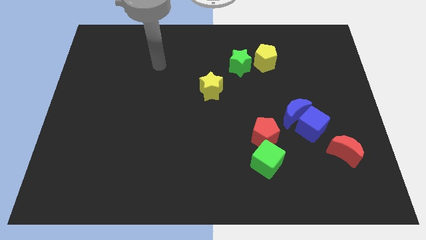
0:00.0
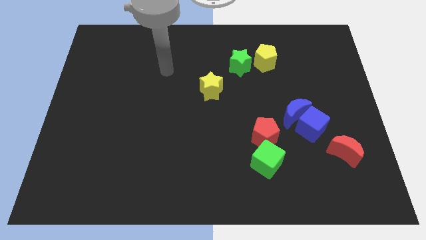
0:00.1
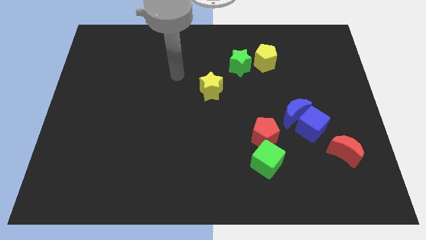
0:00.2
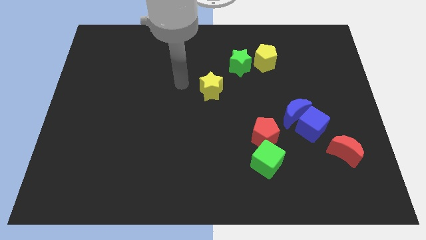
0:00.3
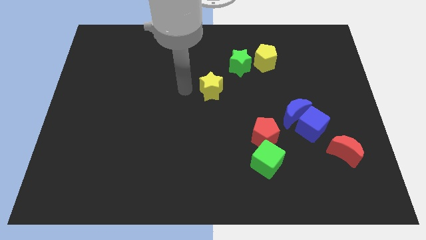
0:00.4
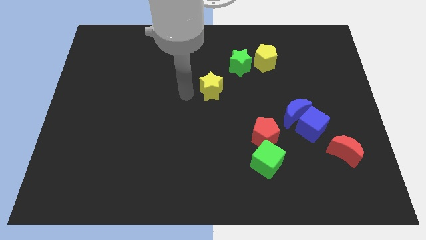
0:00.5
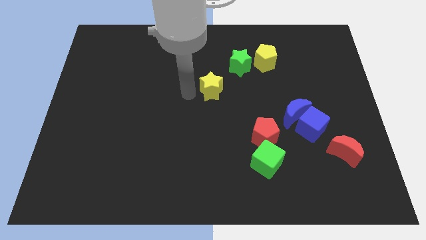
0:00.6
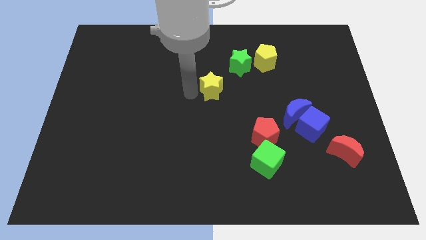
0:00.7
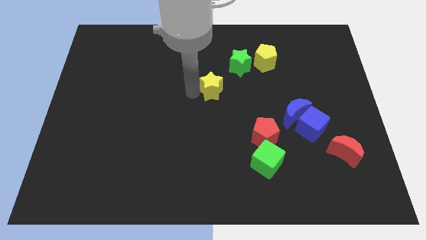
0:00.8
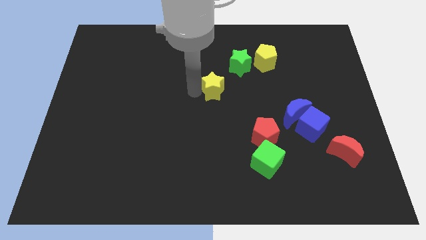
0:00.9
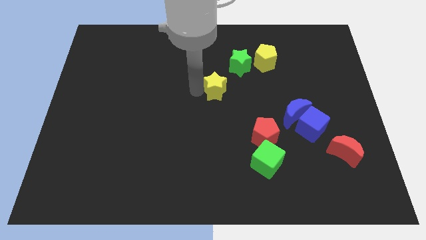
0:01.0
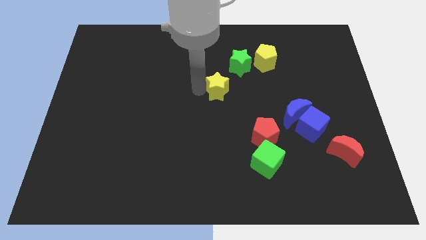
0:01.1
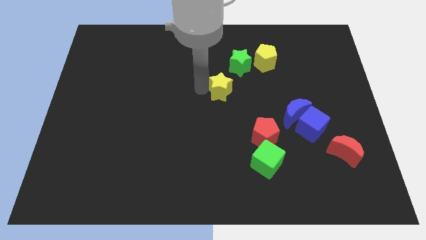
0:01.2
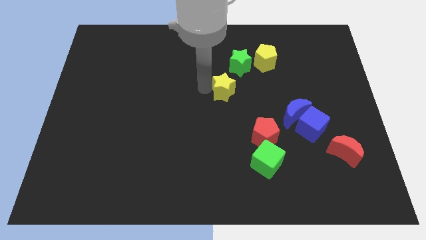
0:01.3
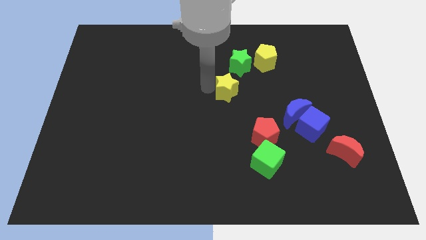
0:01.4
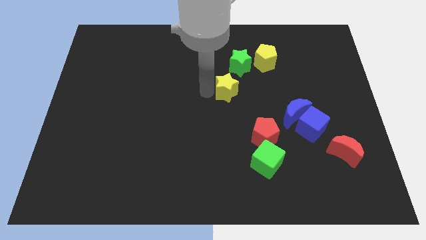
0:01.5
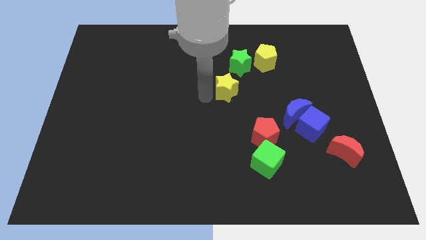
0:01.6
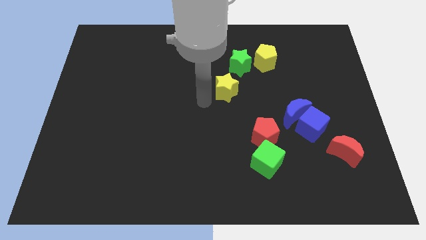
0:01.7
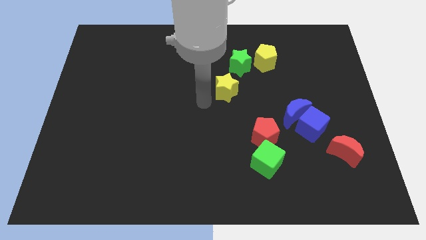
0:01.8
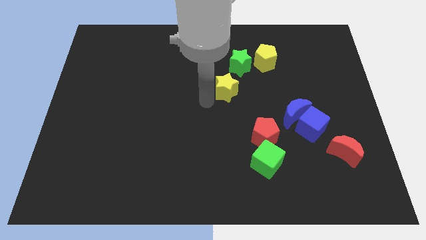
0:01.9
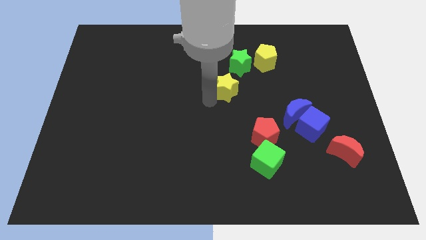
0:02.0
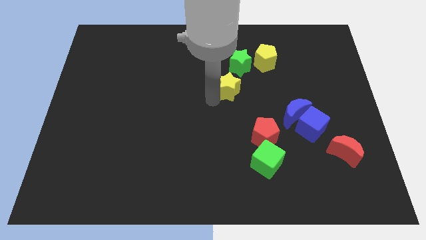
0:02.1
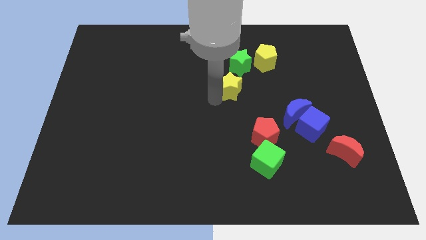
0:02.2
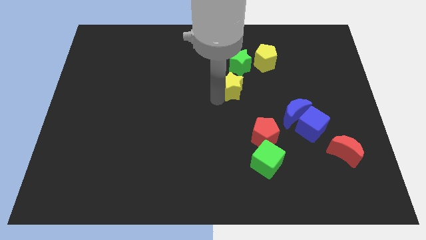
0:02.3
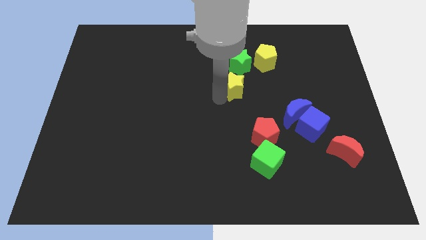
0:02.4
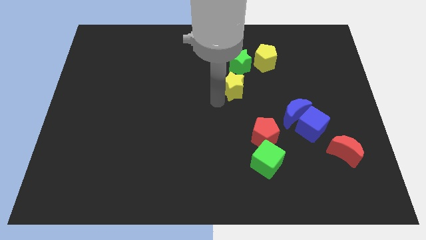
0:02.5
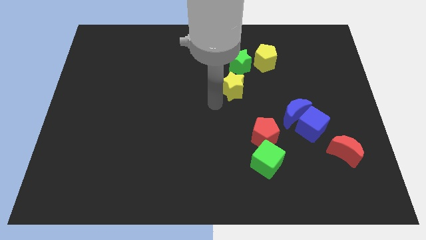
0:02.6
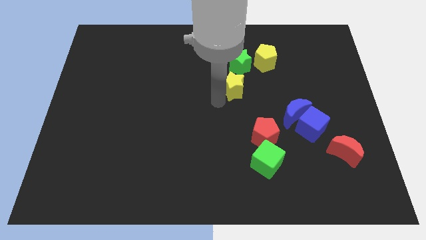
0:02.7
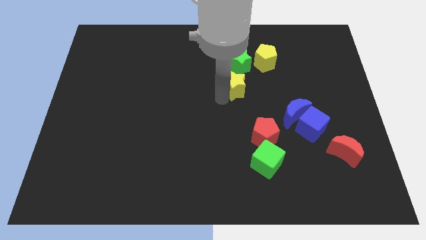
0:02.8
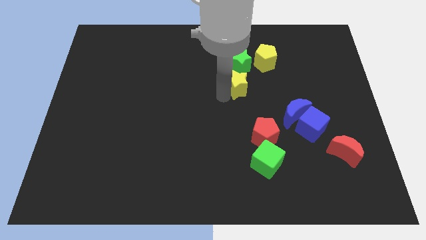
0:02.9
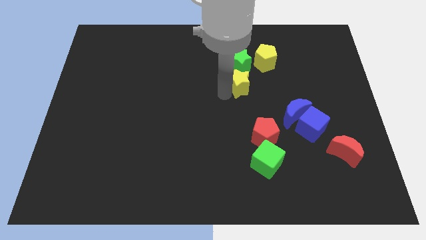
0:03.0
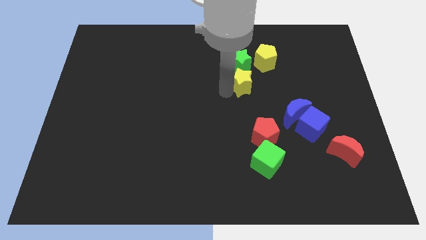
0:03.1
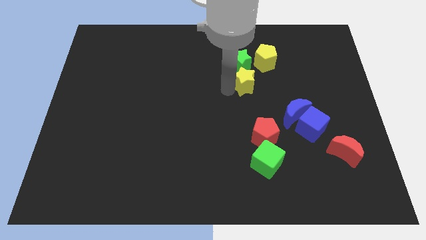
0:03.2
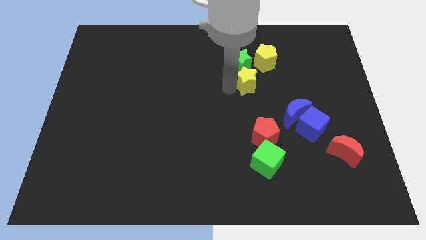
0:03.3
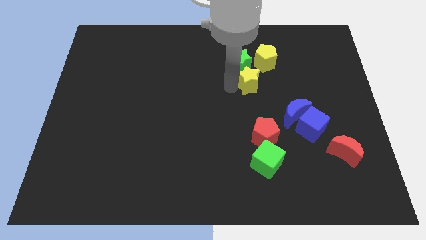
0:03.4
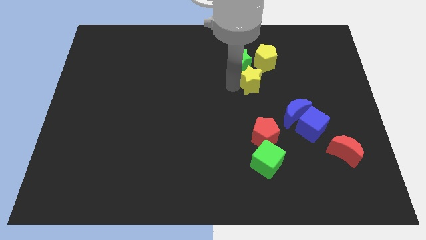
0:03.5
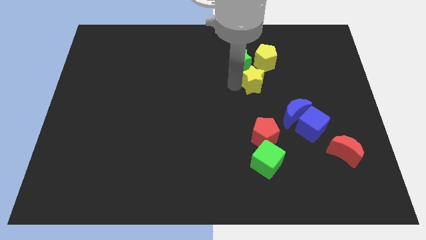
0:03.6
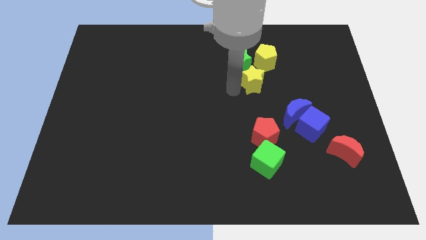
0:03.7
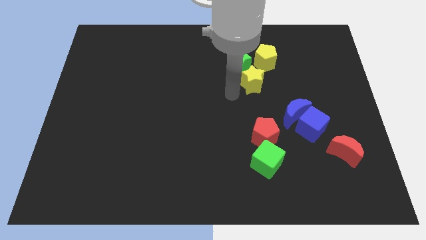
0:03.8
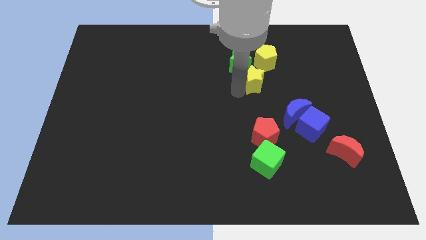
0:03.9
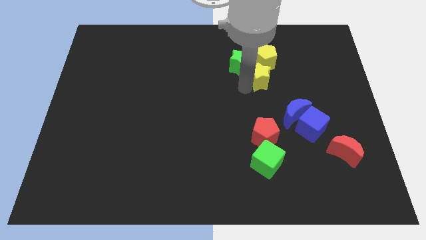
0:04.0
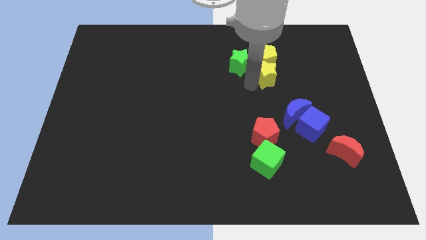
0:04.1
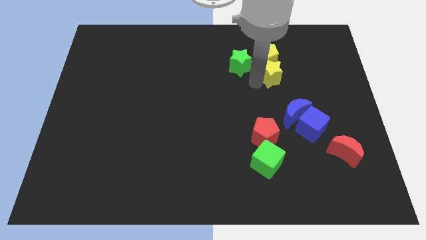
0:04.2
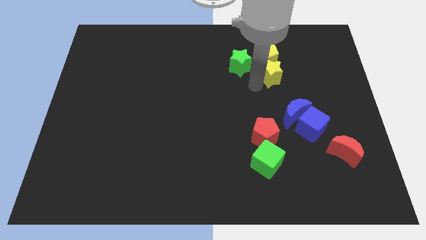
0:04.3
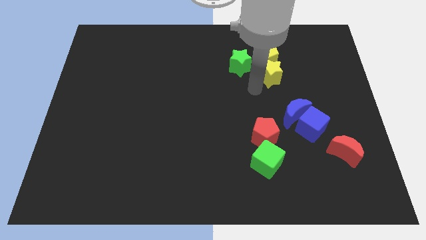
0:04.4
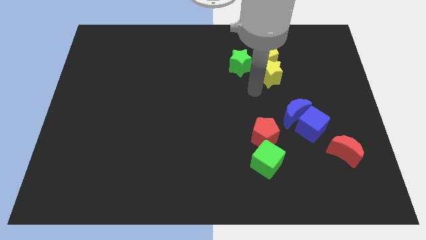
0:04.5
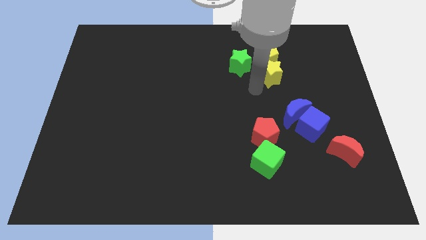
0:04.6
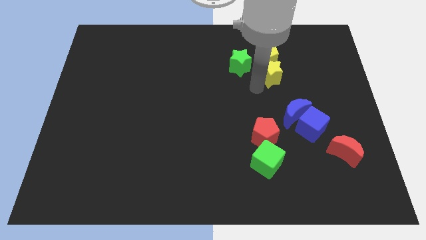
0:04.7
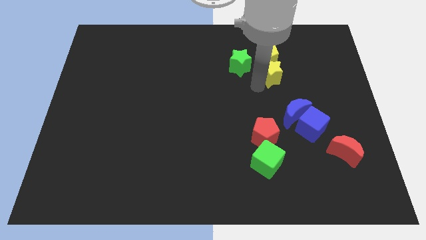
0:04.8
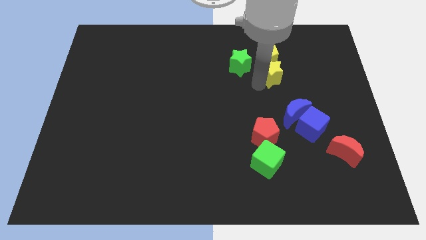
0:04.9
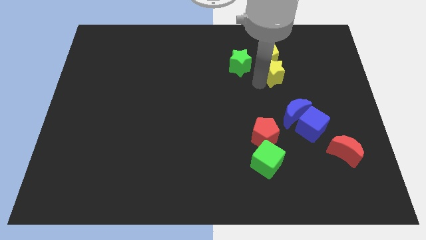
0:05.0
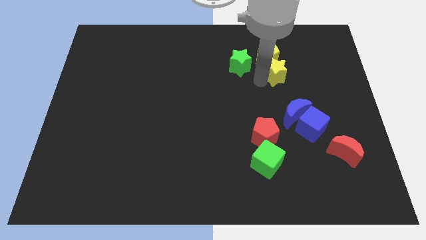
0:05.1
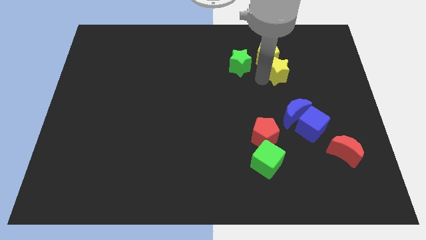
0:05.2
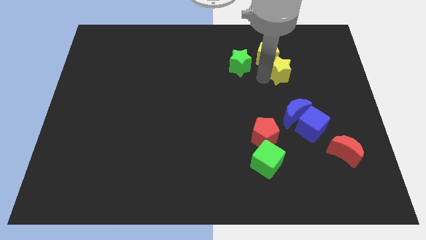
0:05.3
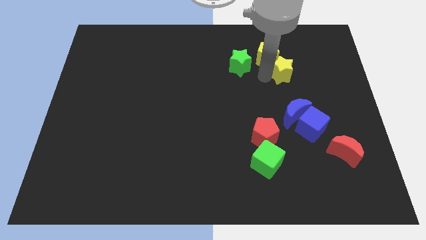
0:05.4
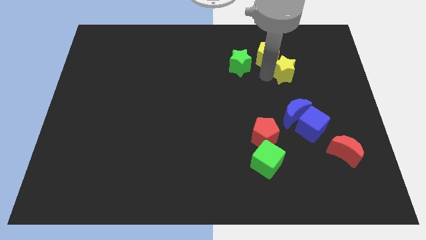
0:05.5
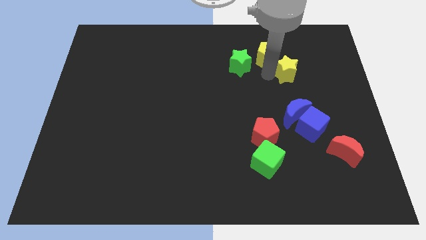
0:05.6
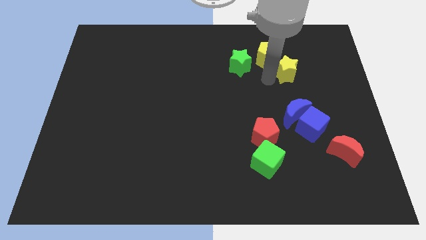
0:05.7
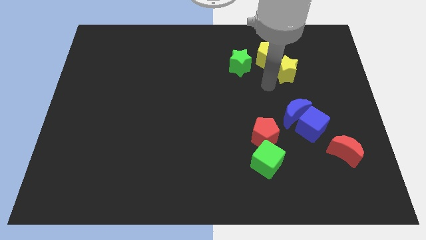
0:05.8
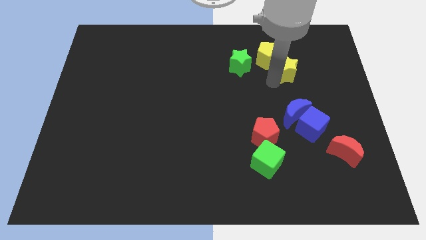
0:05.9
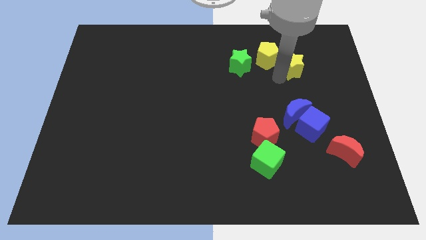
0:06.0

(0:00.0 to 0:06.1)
push the yellow star right of the yellow pentagon

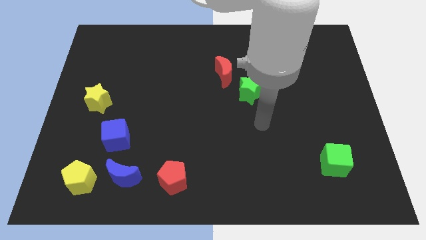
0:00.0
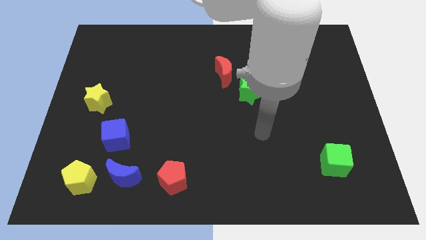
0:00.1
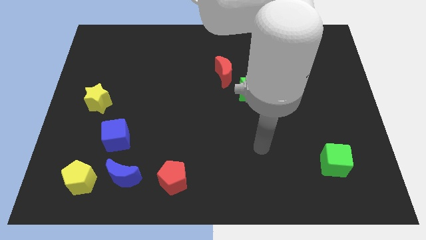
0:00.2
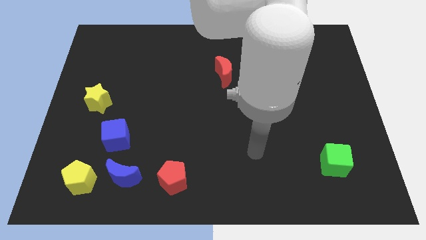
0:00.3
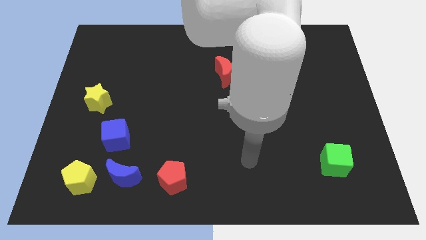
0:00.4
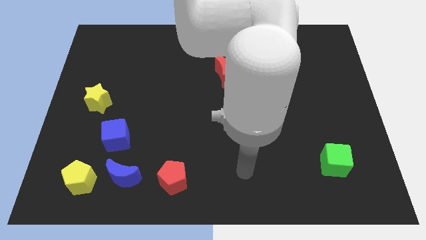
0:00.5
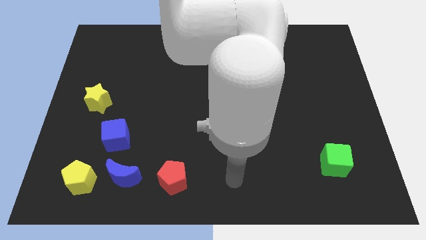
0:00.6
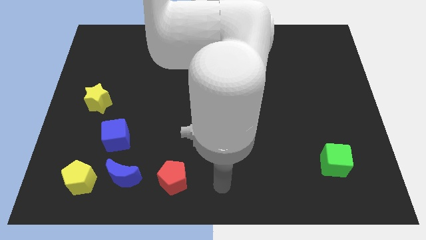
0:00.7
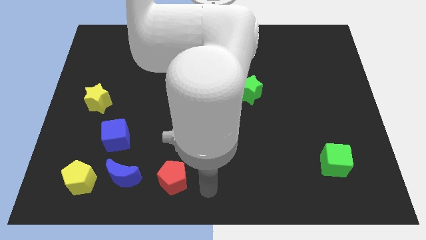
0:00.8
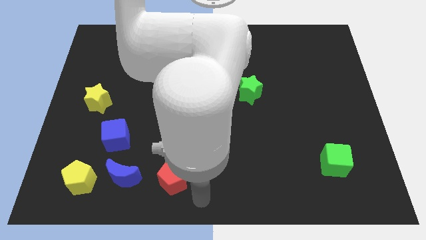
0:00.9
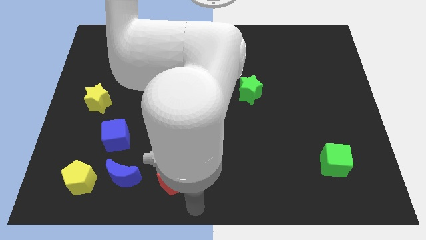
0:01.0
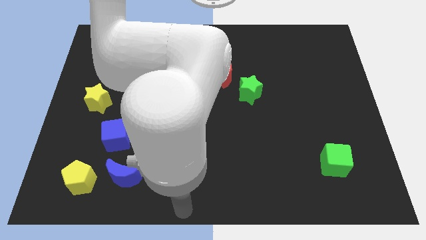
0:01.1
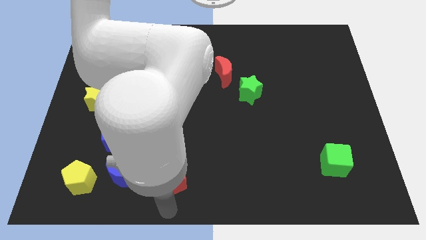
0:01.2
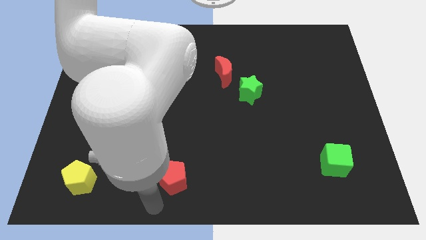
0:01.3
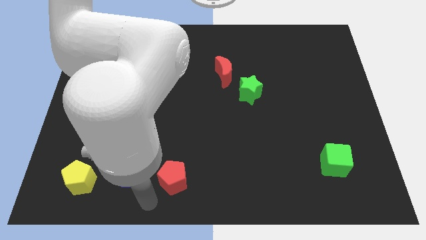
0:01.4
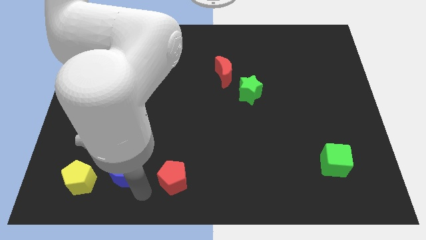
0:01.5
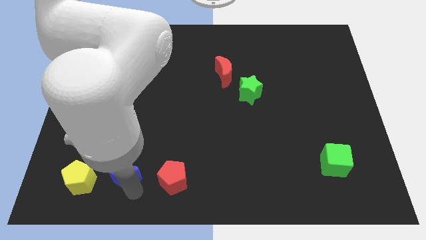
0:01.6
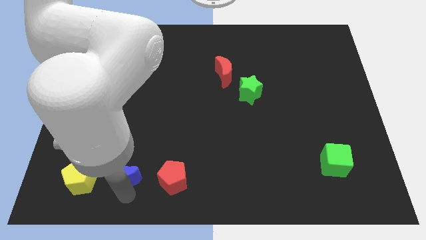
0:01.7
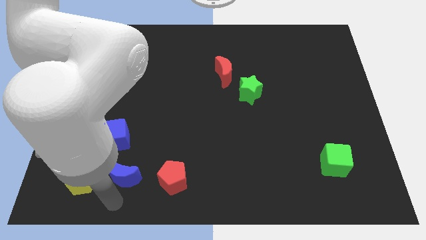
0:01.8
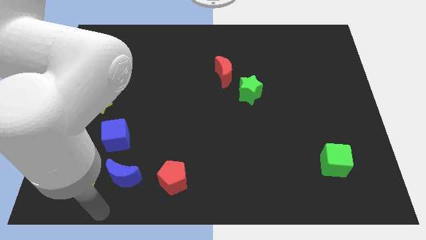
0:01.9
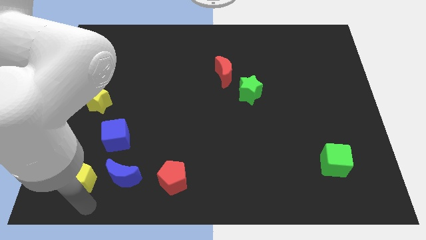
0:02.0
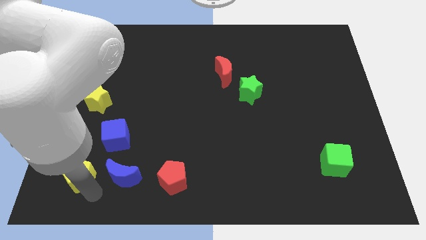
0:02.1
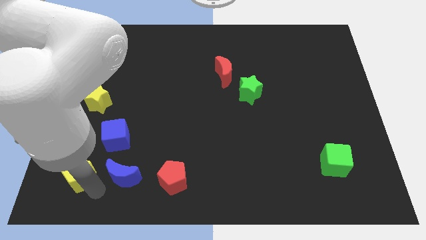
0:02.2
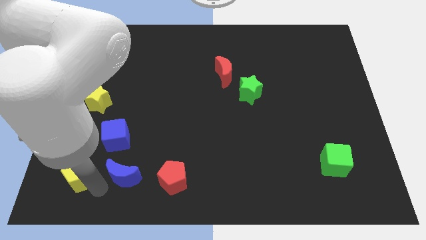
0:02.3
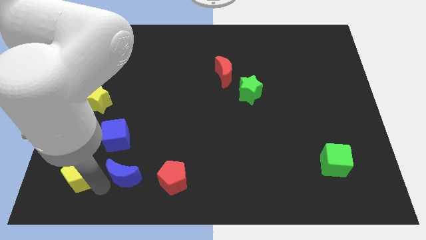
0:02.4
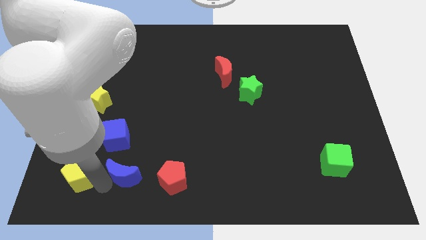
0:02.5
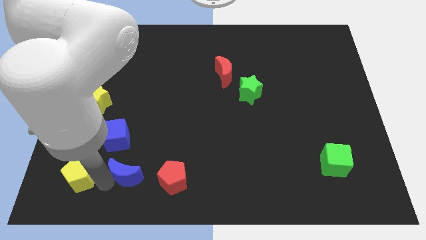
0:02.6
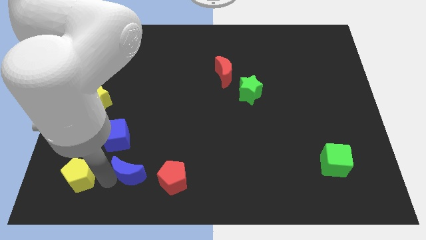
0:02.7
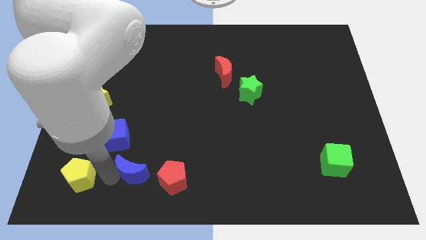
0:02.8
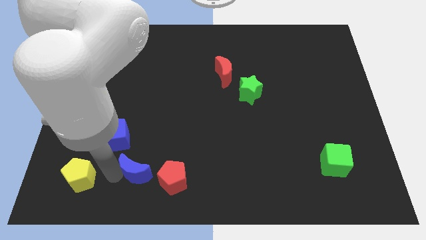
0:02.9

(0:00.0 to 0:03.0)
slide the blue moon diagonally up and to the left of the red pentagon
